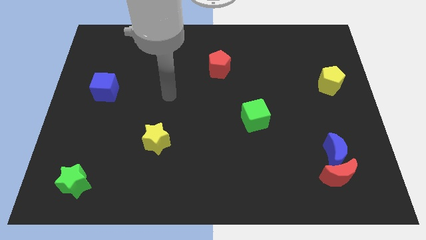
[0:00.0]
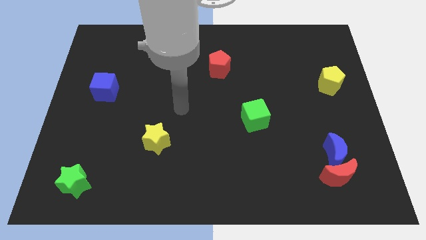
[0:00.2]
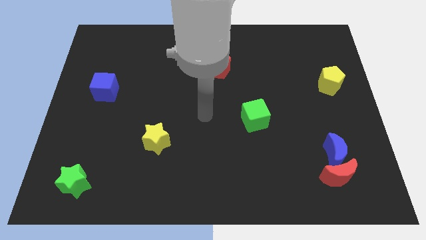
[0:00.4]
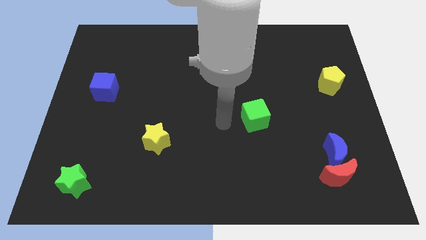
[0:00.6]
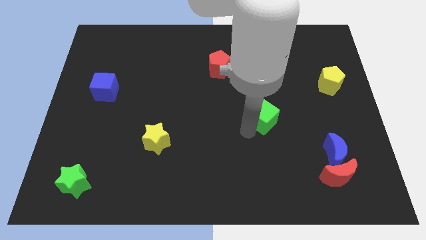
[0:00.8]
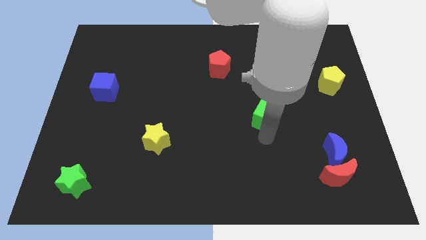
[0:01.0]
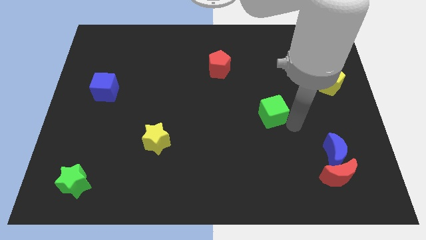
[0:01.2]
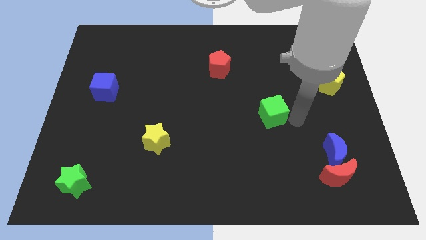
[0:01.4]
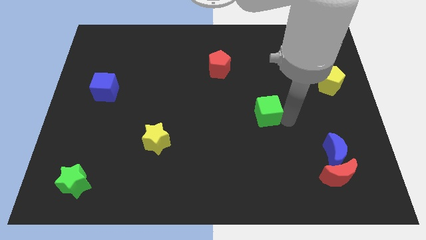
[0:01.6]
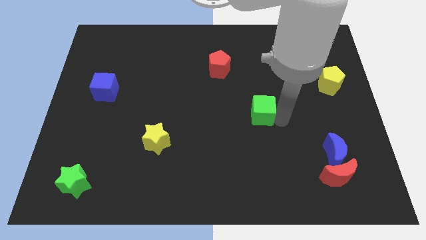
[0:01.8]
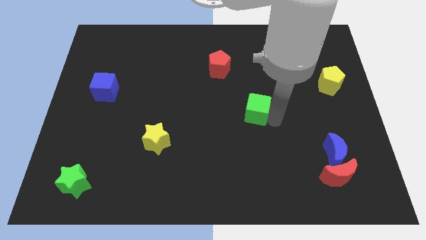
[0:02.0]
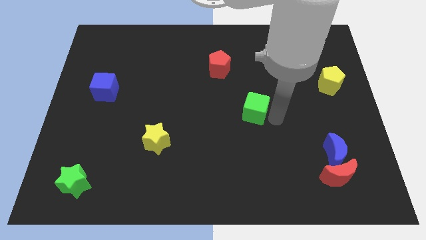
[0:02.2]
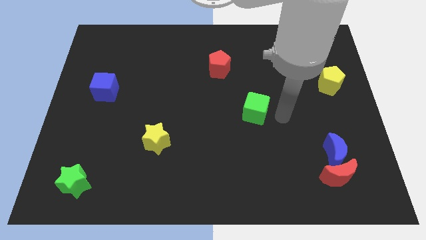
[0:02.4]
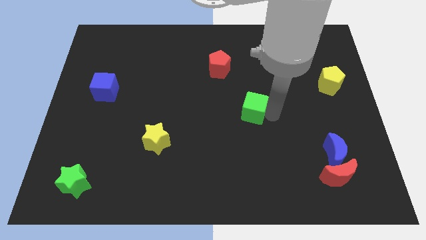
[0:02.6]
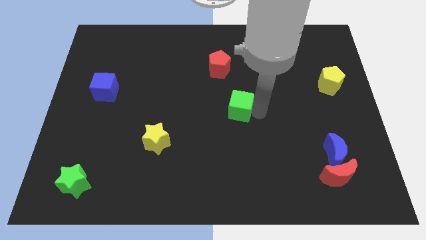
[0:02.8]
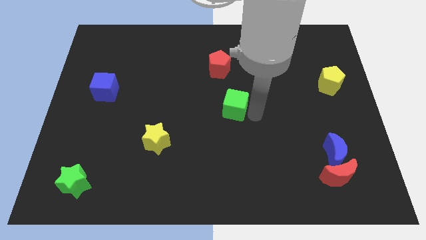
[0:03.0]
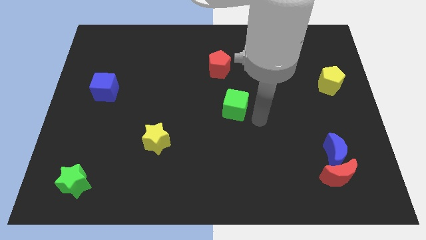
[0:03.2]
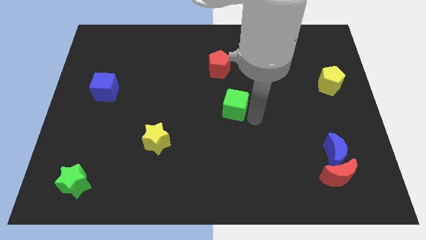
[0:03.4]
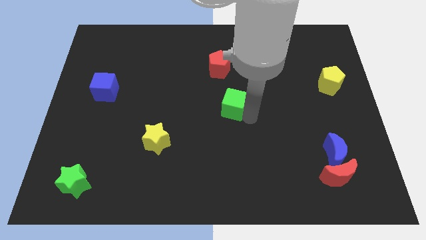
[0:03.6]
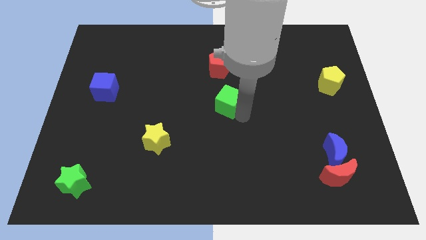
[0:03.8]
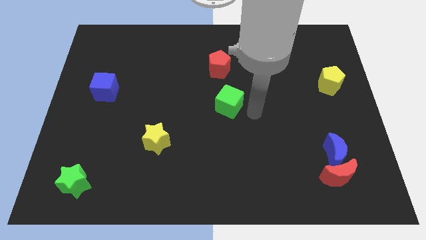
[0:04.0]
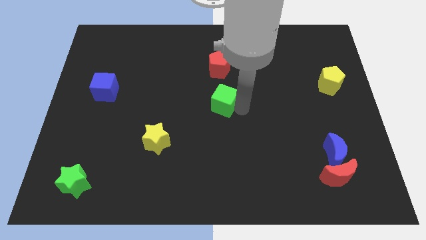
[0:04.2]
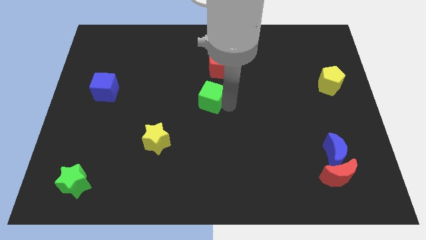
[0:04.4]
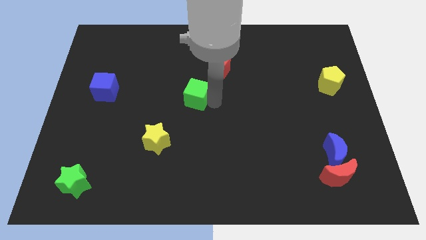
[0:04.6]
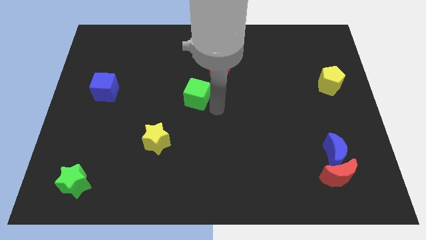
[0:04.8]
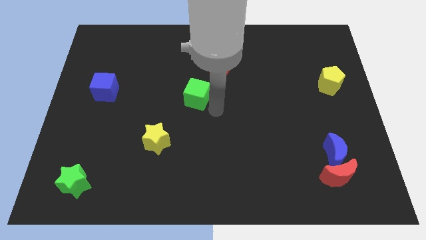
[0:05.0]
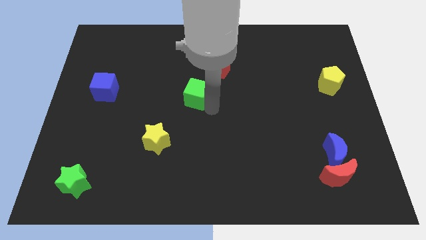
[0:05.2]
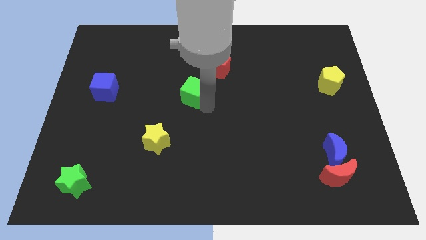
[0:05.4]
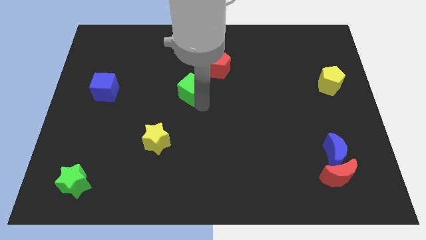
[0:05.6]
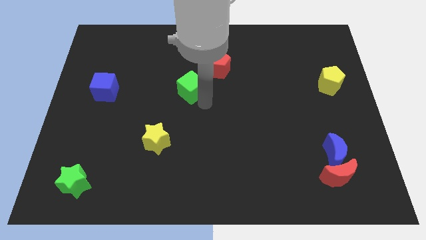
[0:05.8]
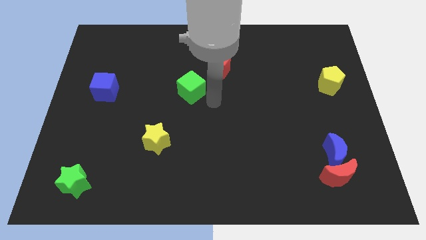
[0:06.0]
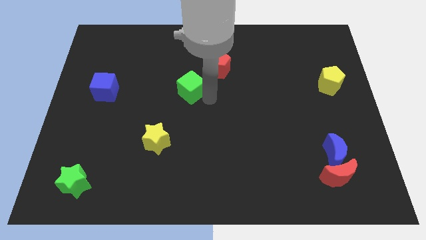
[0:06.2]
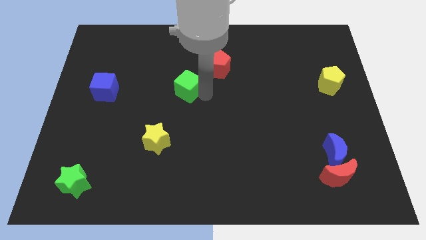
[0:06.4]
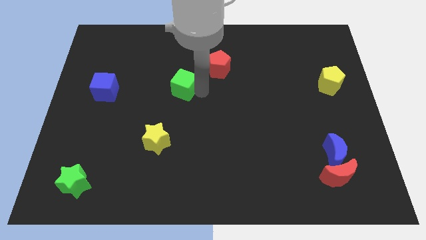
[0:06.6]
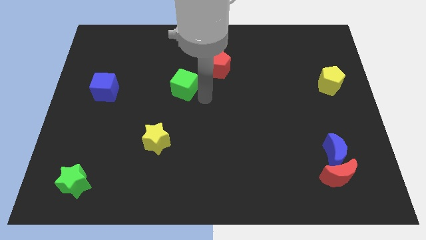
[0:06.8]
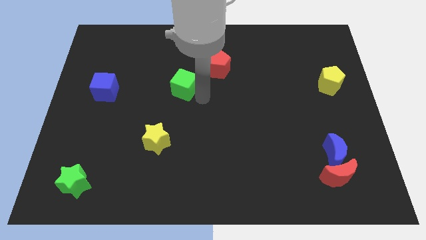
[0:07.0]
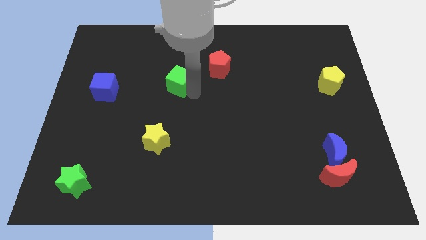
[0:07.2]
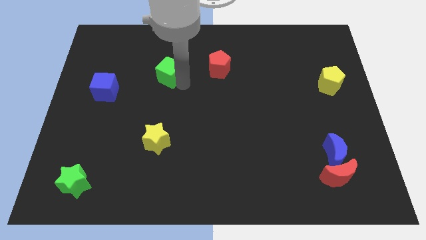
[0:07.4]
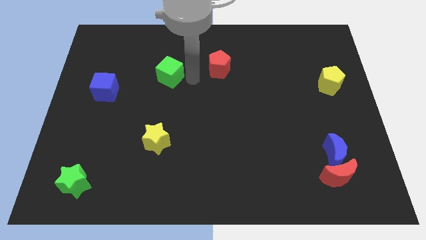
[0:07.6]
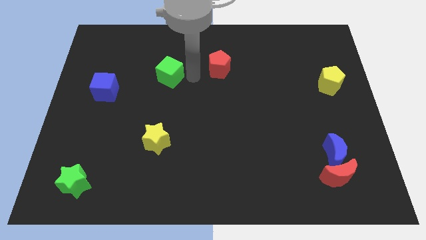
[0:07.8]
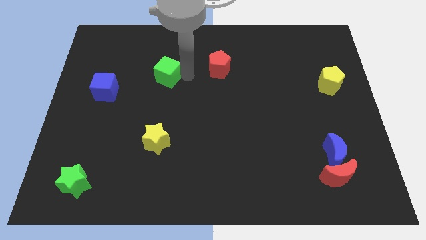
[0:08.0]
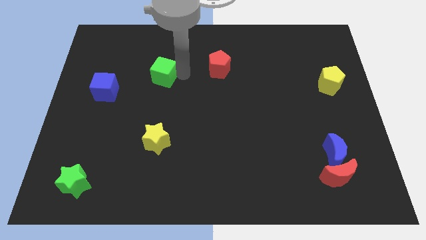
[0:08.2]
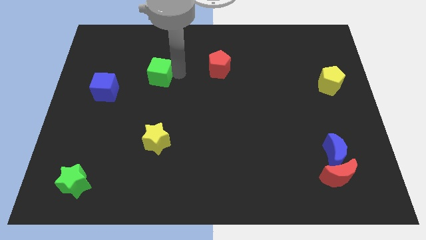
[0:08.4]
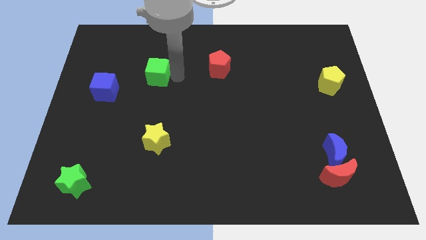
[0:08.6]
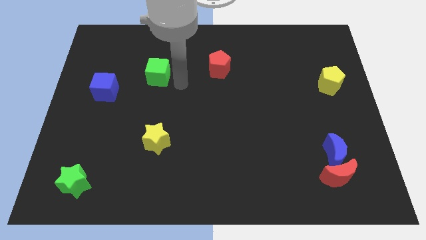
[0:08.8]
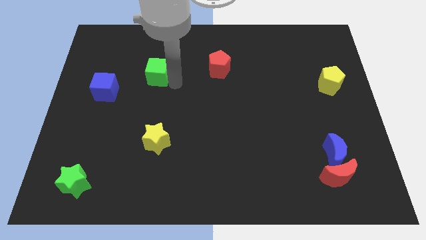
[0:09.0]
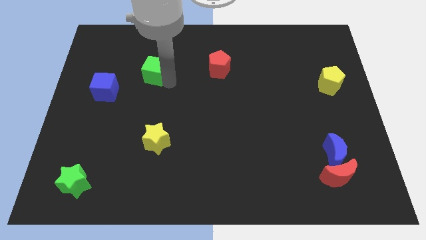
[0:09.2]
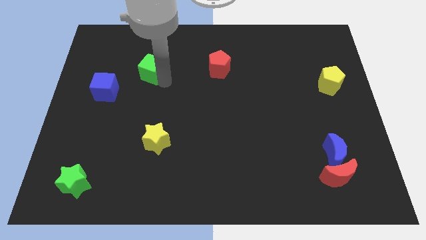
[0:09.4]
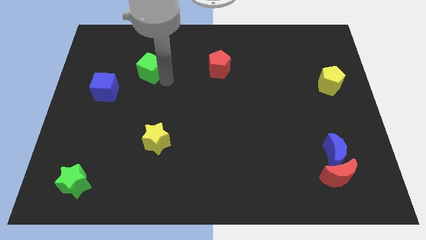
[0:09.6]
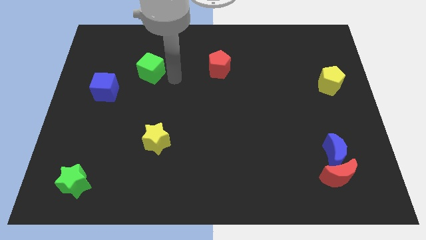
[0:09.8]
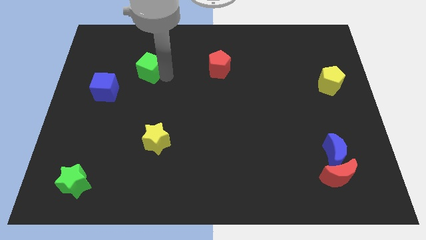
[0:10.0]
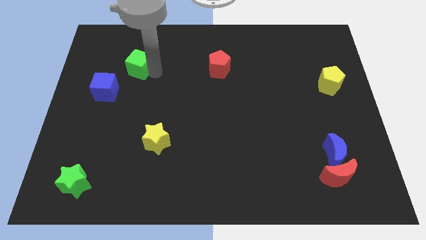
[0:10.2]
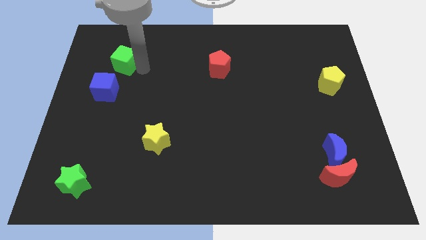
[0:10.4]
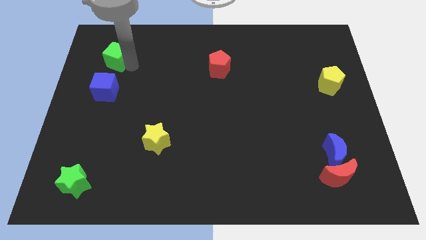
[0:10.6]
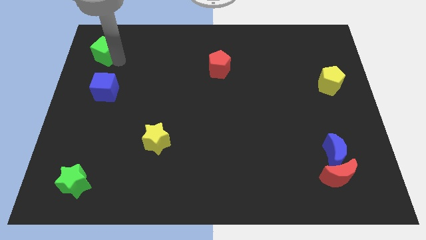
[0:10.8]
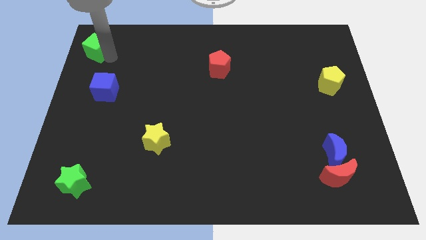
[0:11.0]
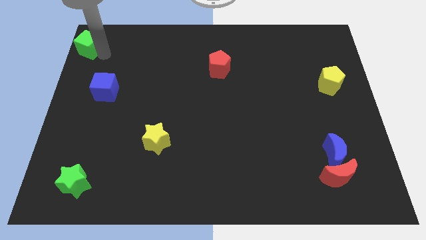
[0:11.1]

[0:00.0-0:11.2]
put the green cube to the top left corner

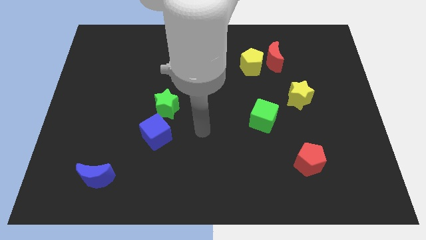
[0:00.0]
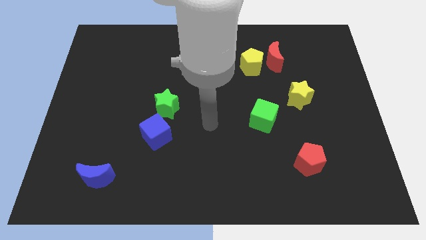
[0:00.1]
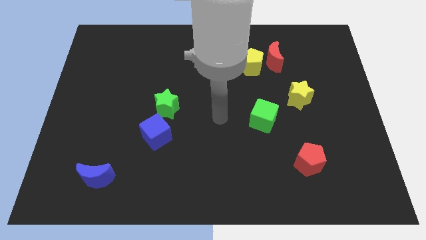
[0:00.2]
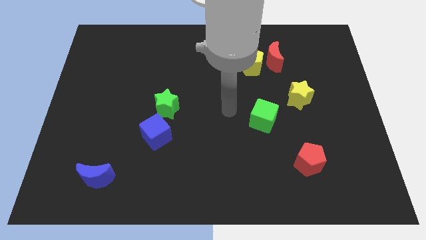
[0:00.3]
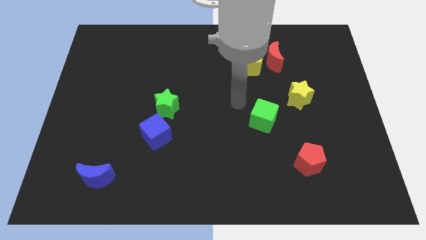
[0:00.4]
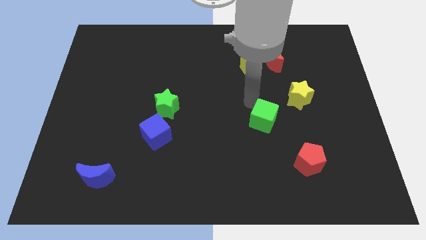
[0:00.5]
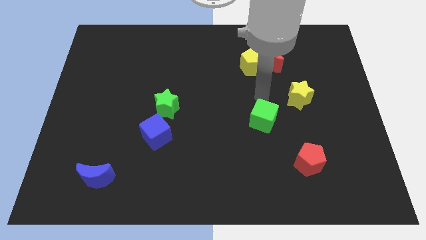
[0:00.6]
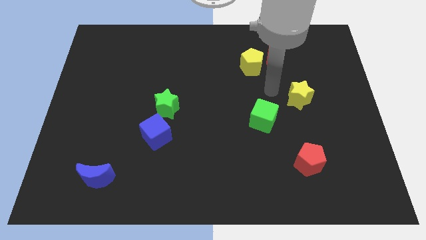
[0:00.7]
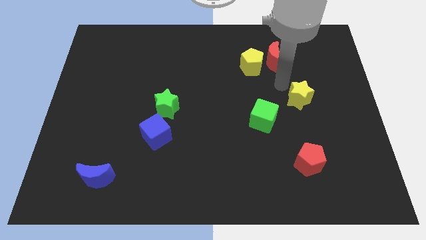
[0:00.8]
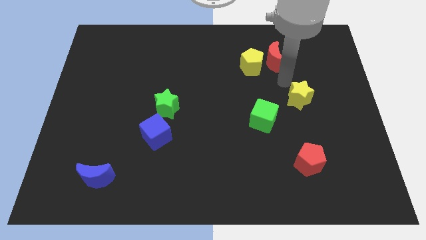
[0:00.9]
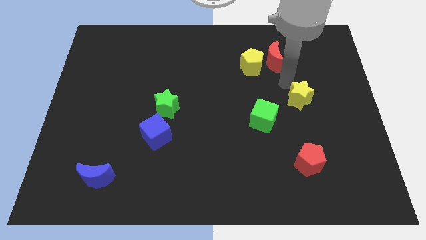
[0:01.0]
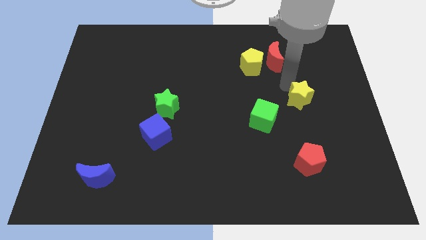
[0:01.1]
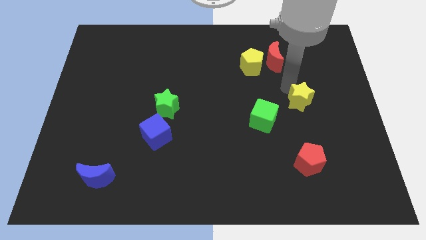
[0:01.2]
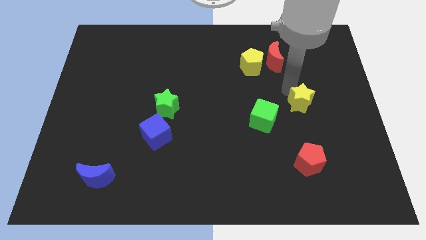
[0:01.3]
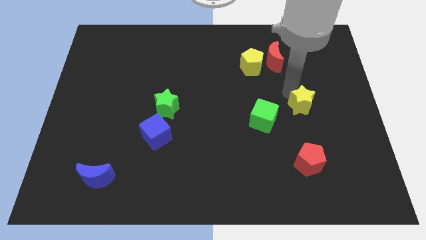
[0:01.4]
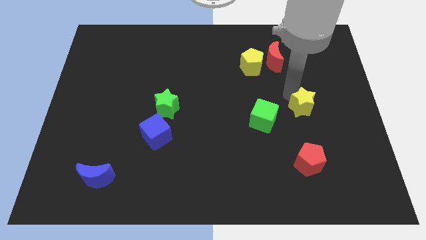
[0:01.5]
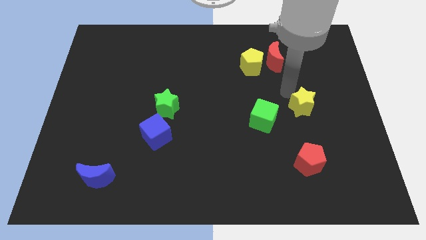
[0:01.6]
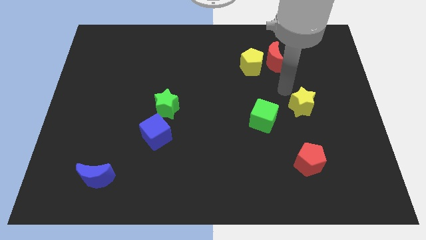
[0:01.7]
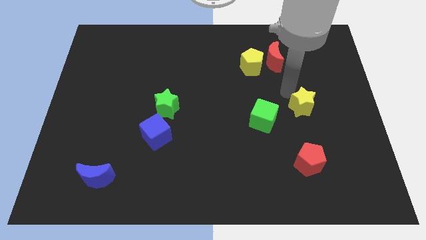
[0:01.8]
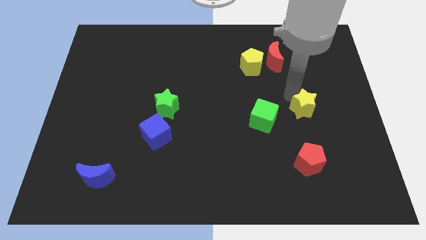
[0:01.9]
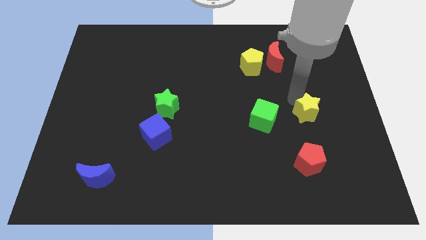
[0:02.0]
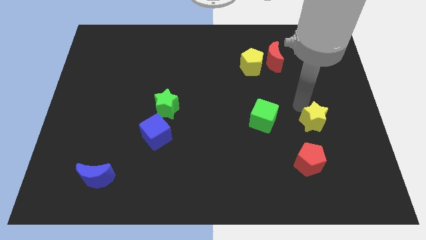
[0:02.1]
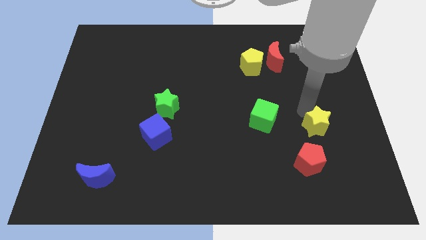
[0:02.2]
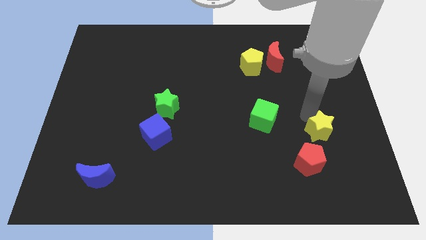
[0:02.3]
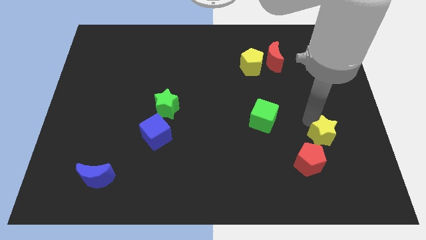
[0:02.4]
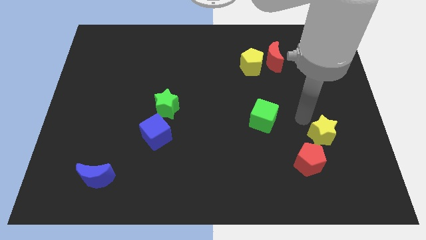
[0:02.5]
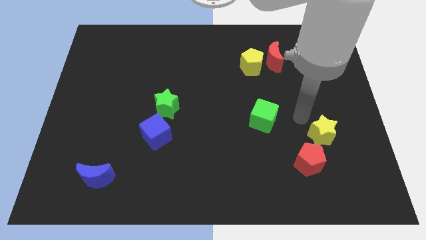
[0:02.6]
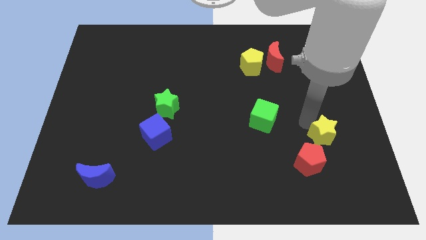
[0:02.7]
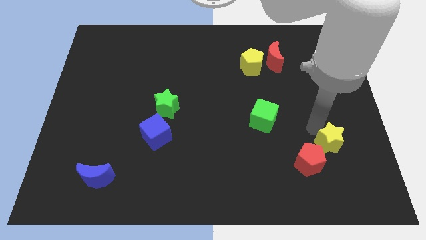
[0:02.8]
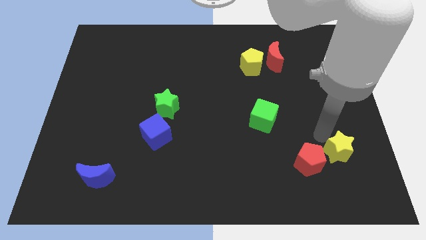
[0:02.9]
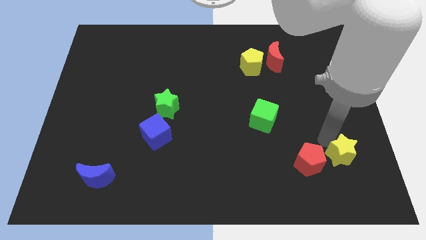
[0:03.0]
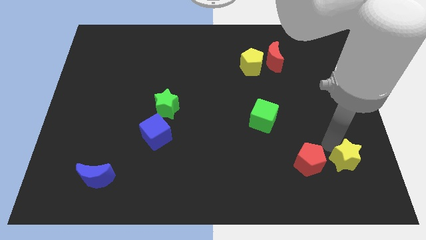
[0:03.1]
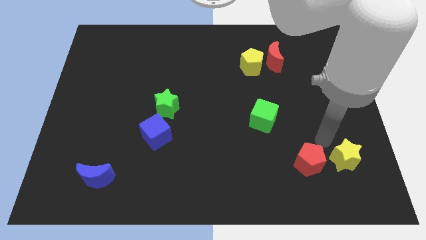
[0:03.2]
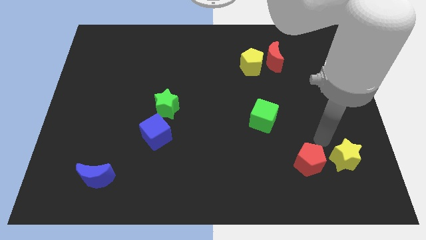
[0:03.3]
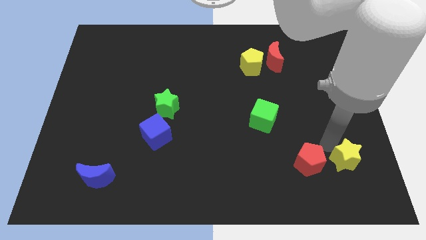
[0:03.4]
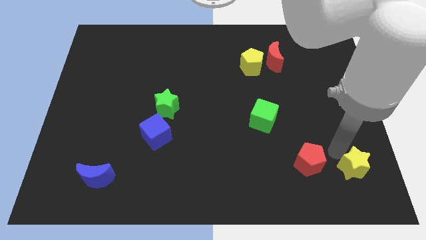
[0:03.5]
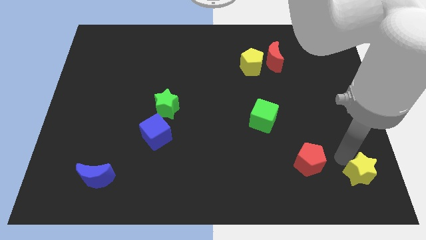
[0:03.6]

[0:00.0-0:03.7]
slide the yellow star to the bottom right corner
